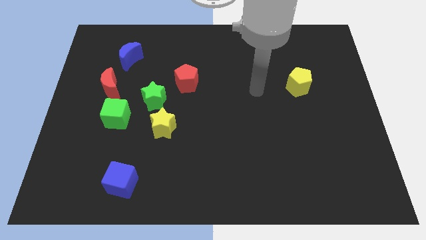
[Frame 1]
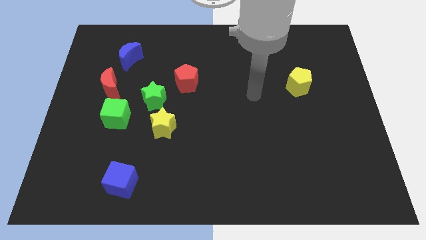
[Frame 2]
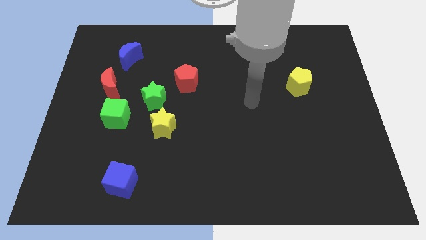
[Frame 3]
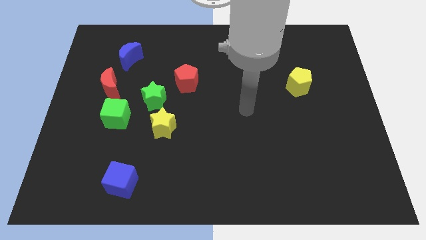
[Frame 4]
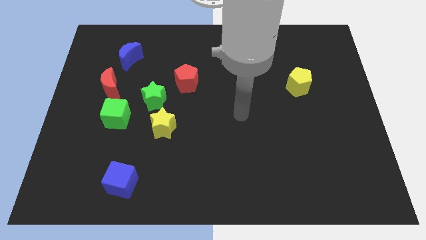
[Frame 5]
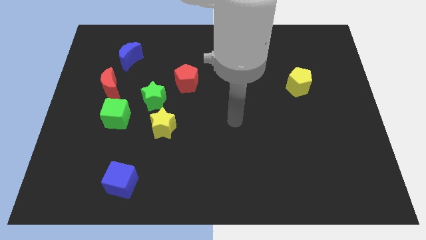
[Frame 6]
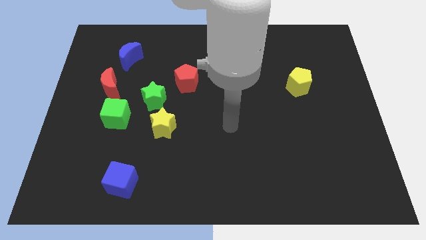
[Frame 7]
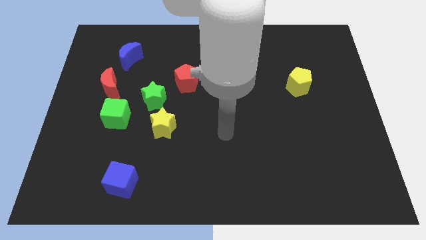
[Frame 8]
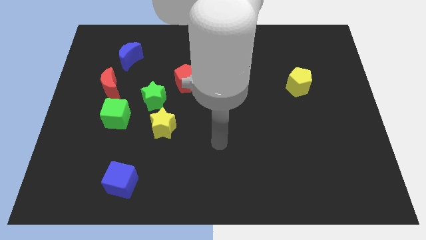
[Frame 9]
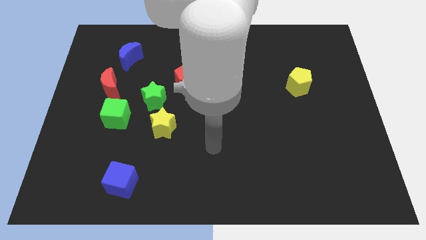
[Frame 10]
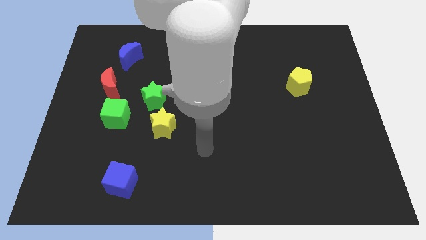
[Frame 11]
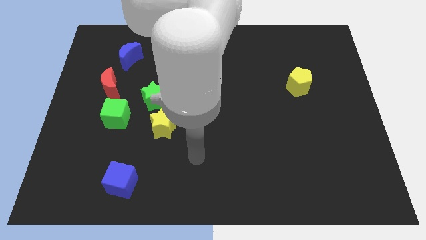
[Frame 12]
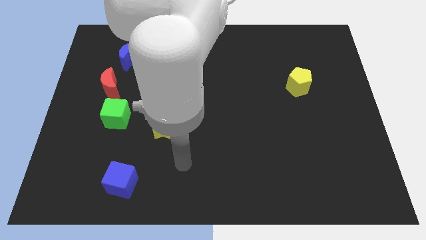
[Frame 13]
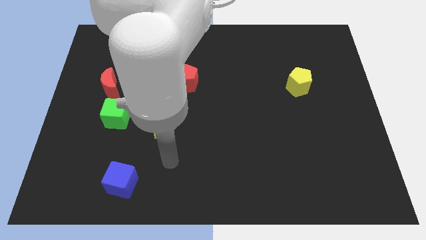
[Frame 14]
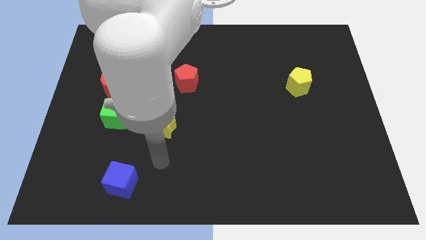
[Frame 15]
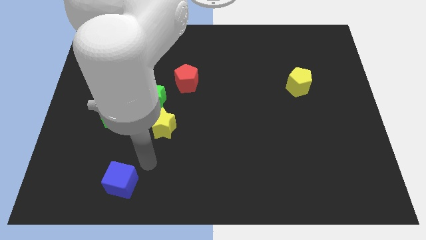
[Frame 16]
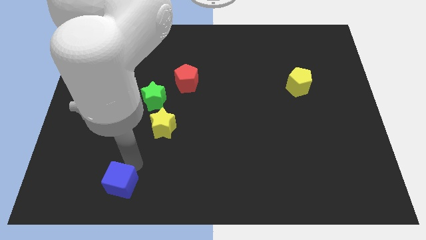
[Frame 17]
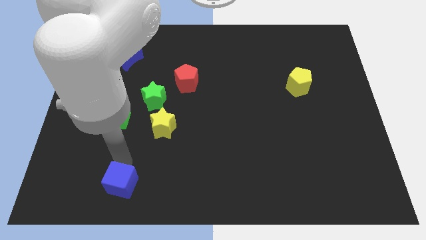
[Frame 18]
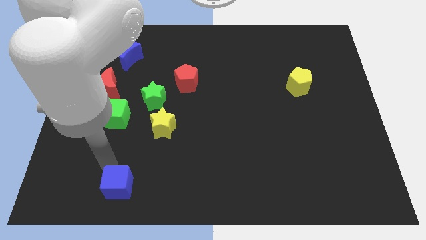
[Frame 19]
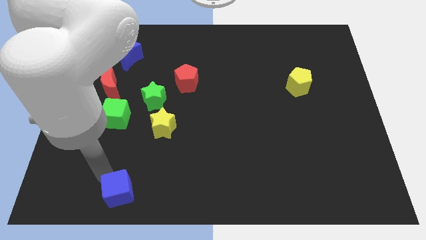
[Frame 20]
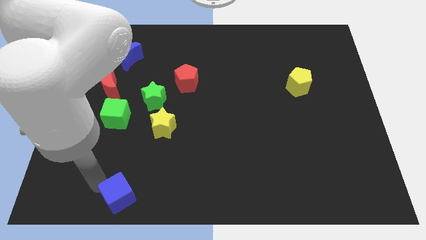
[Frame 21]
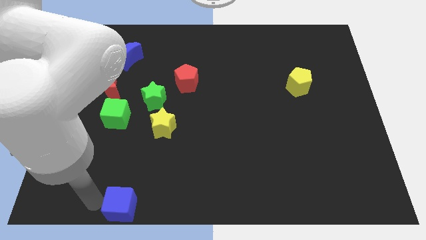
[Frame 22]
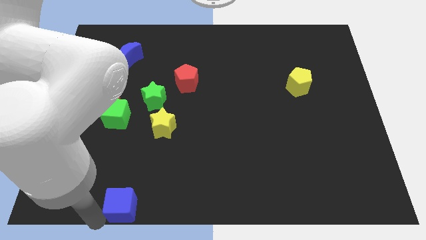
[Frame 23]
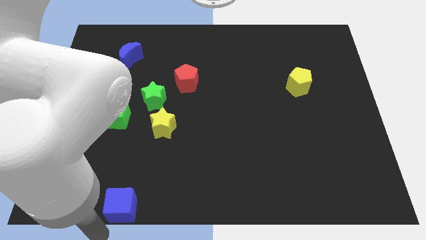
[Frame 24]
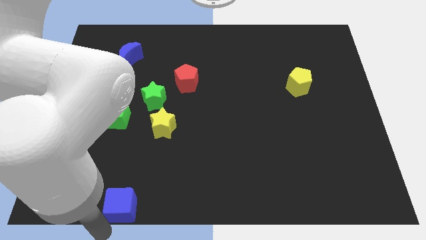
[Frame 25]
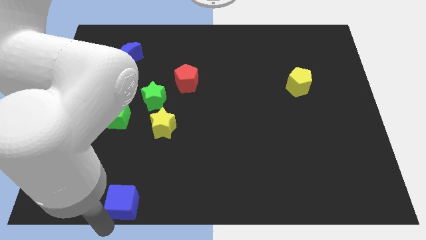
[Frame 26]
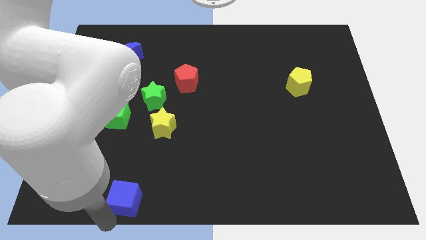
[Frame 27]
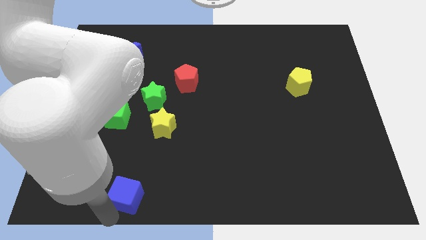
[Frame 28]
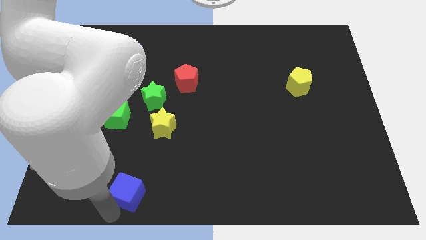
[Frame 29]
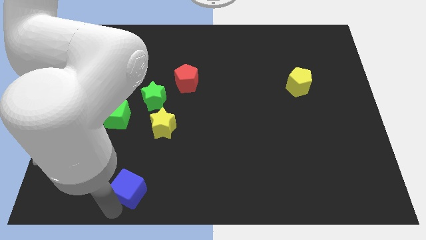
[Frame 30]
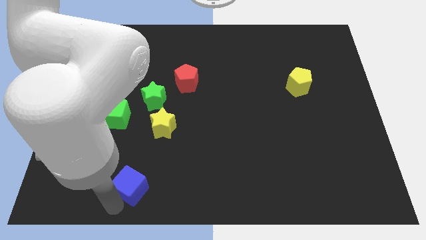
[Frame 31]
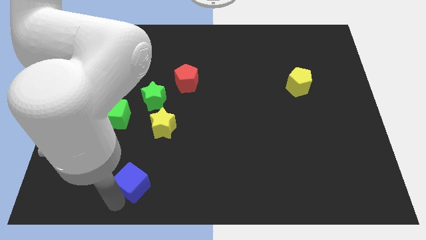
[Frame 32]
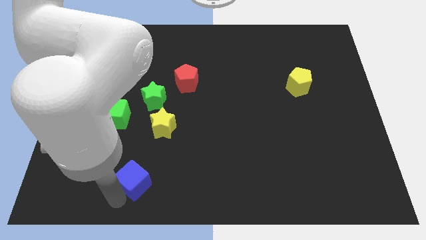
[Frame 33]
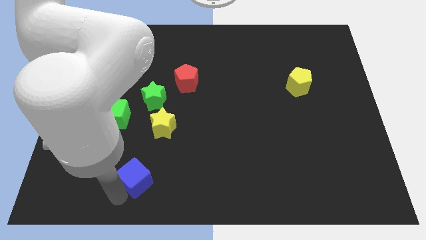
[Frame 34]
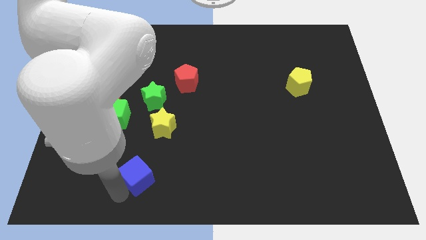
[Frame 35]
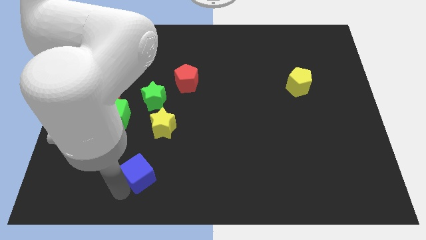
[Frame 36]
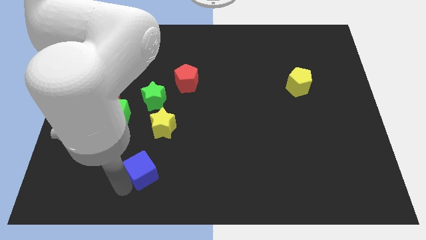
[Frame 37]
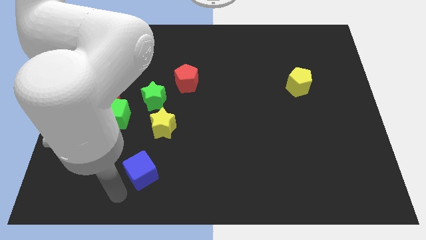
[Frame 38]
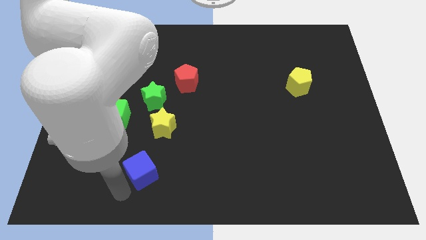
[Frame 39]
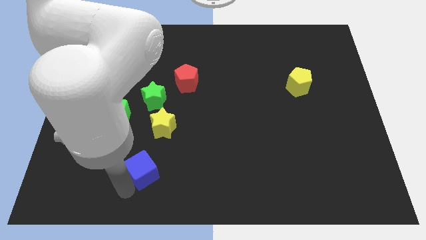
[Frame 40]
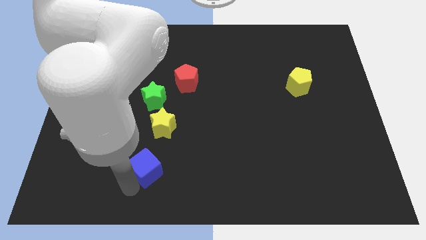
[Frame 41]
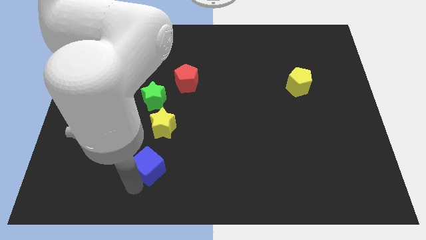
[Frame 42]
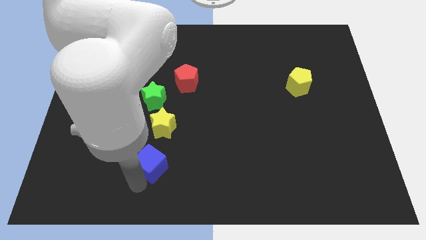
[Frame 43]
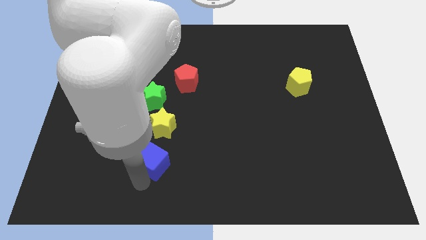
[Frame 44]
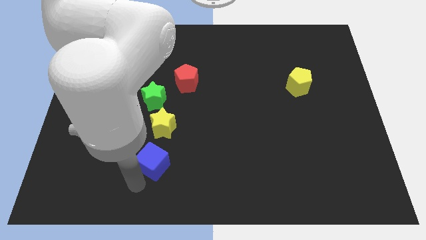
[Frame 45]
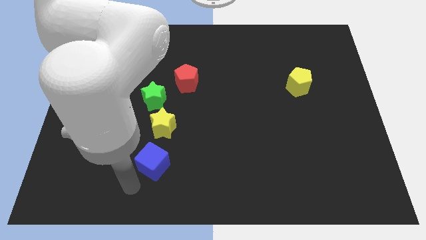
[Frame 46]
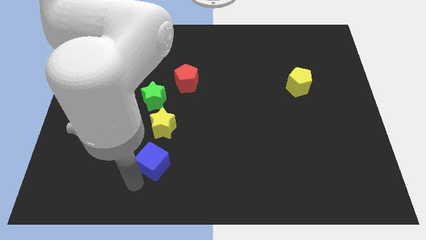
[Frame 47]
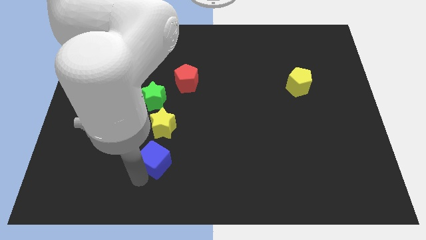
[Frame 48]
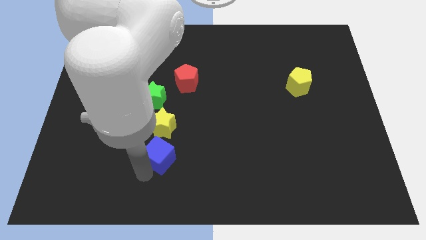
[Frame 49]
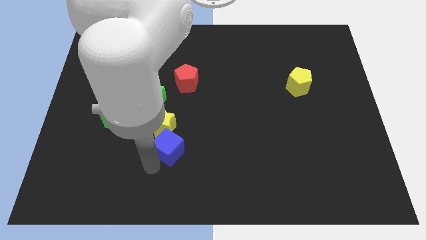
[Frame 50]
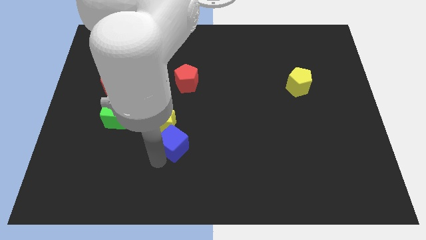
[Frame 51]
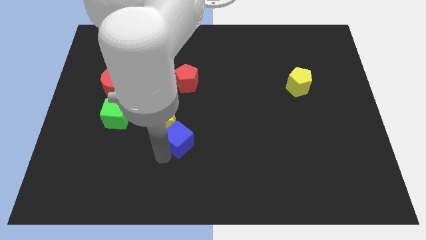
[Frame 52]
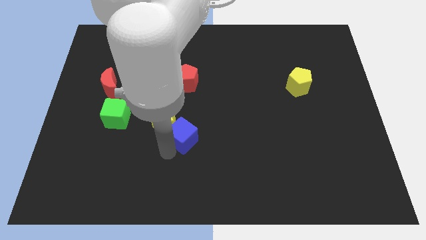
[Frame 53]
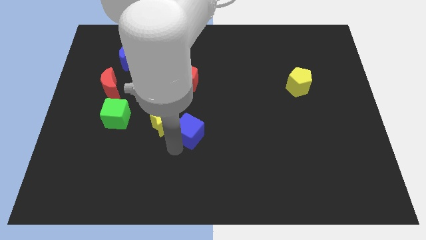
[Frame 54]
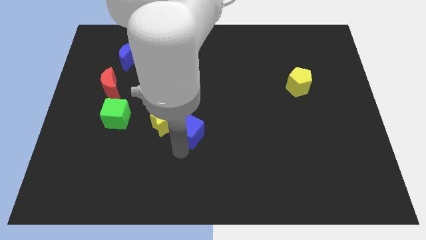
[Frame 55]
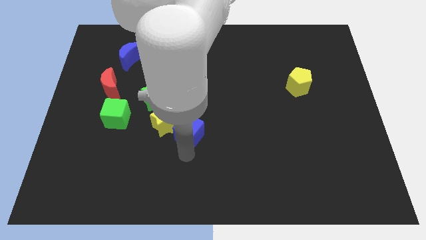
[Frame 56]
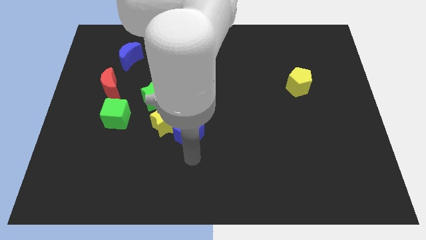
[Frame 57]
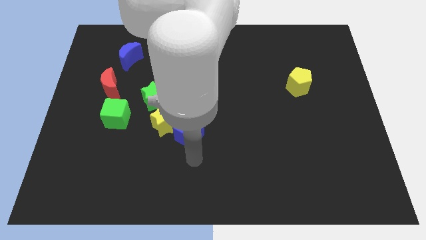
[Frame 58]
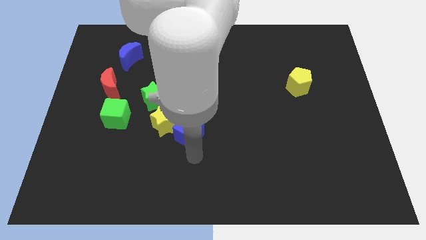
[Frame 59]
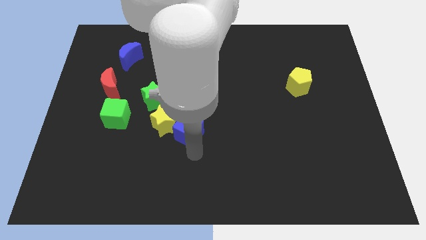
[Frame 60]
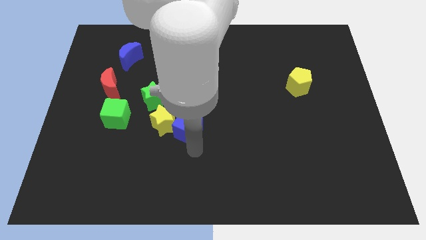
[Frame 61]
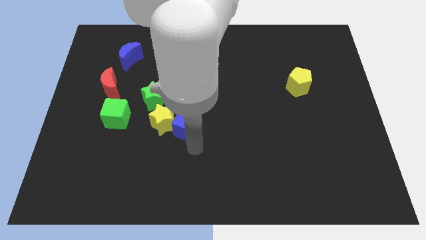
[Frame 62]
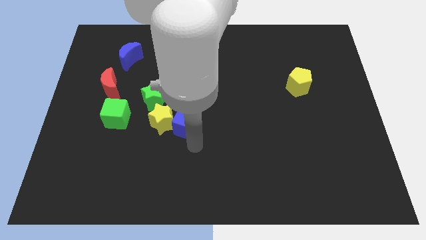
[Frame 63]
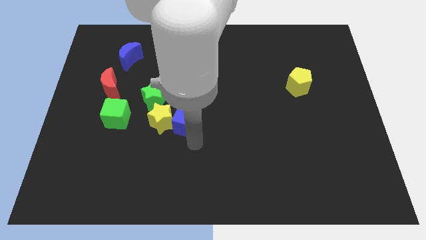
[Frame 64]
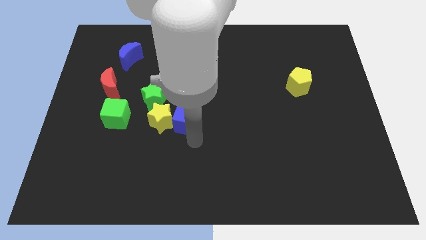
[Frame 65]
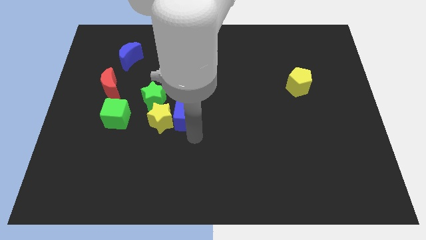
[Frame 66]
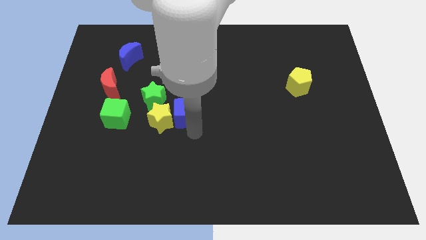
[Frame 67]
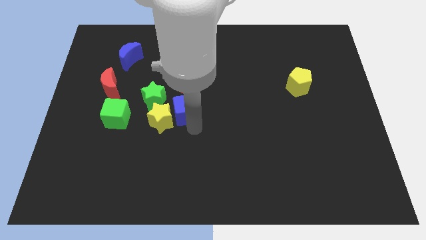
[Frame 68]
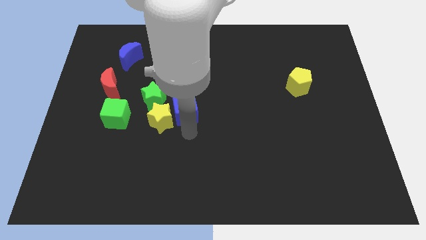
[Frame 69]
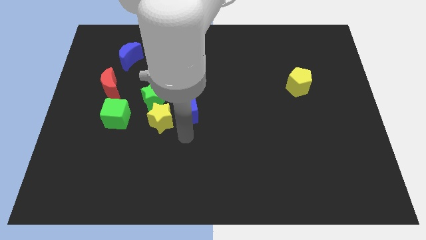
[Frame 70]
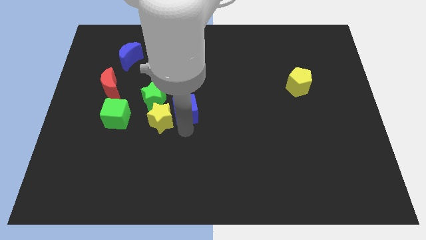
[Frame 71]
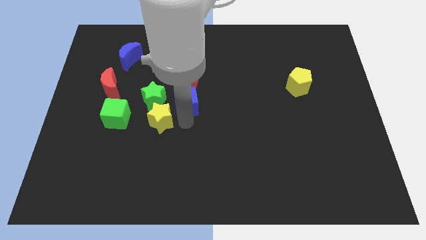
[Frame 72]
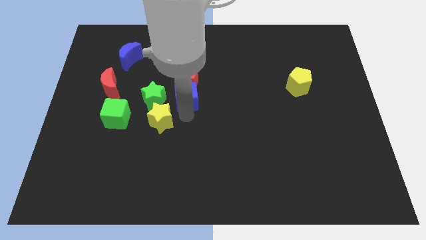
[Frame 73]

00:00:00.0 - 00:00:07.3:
put the blue cube to the red pentagon
